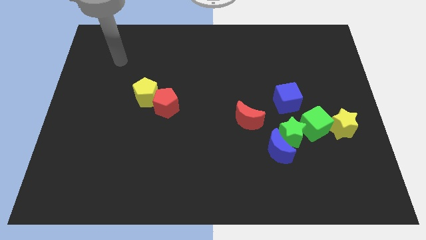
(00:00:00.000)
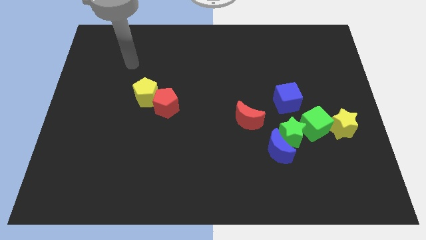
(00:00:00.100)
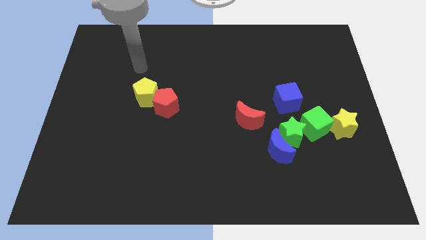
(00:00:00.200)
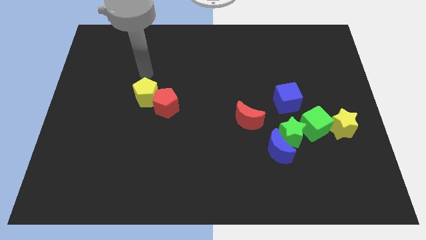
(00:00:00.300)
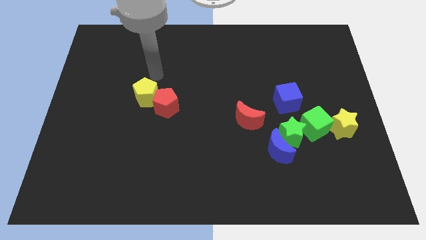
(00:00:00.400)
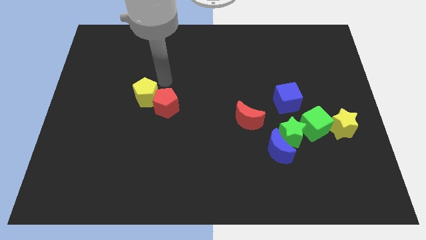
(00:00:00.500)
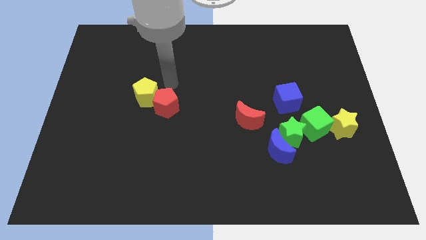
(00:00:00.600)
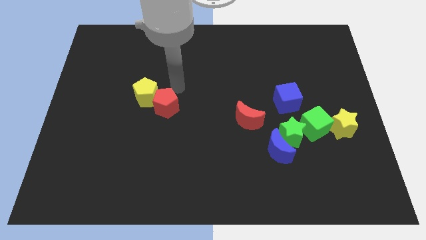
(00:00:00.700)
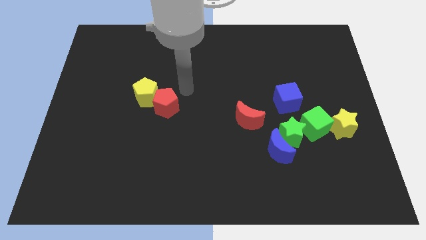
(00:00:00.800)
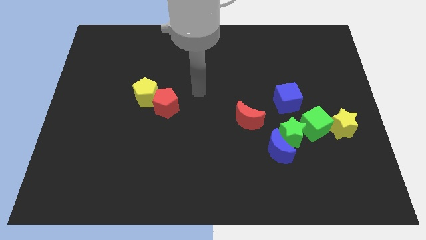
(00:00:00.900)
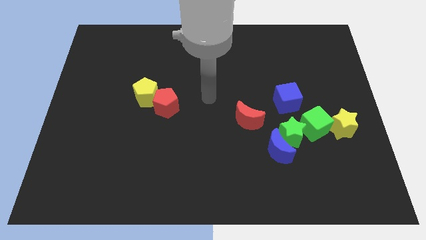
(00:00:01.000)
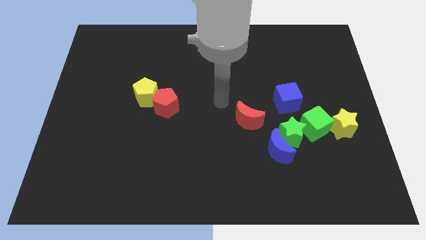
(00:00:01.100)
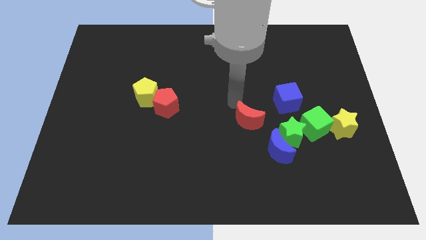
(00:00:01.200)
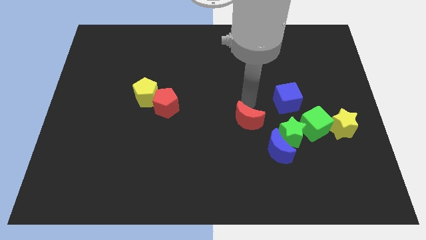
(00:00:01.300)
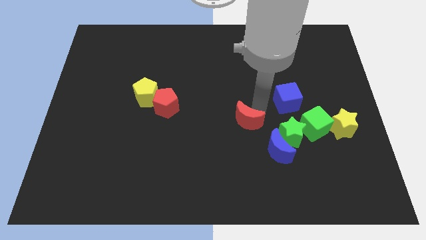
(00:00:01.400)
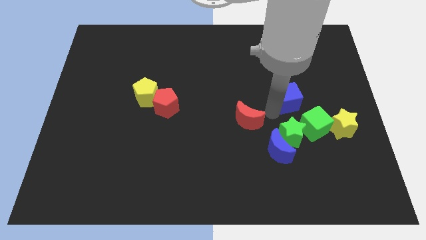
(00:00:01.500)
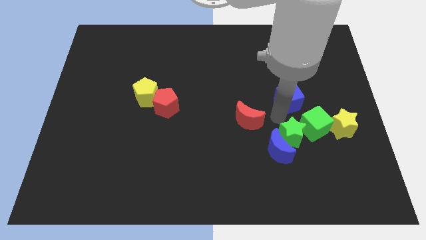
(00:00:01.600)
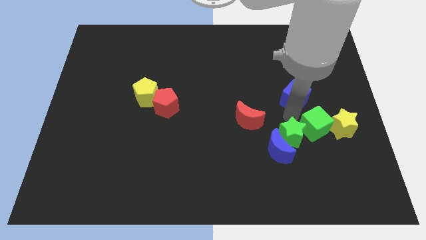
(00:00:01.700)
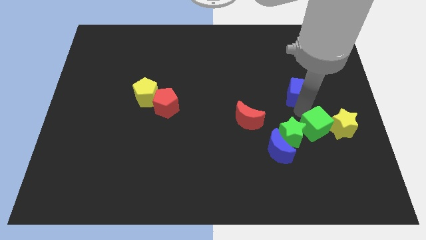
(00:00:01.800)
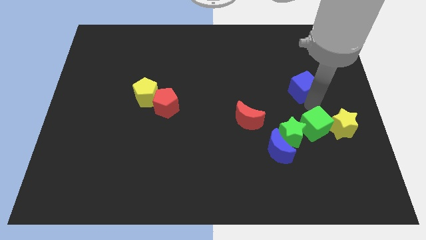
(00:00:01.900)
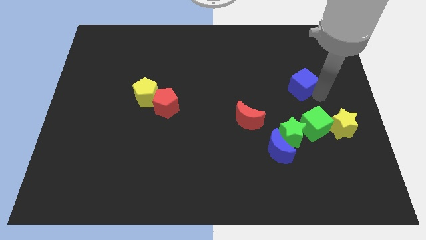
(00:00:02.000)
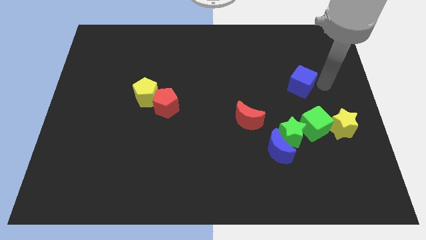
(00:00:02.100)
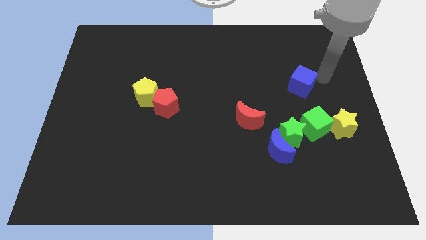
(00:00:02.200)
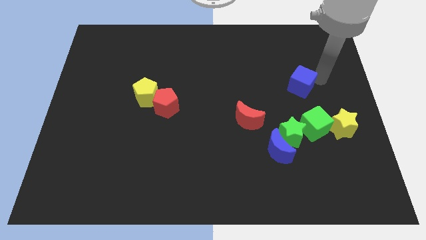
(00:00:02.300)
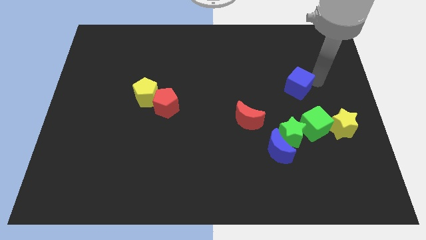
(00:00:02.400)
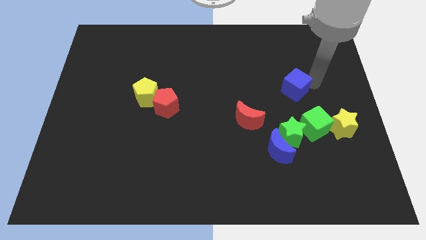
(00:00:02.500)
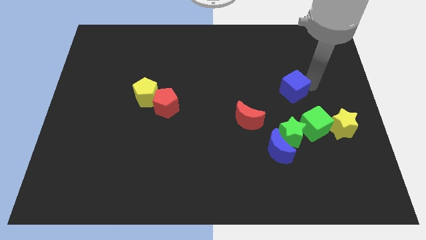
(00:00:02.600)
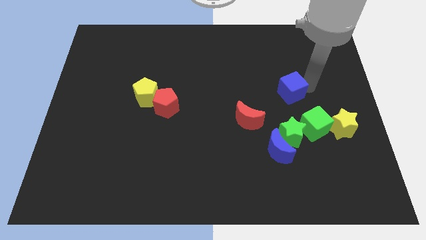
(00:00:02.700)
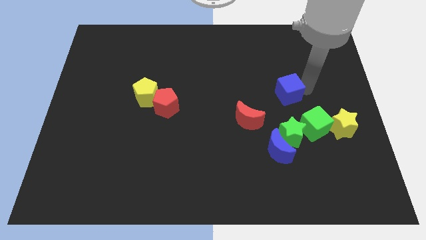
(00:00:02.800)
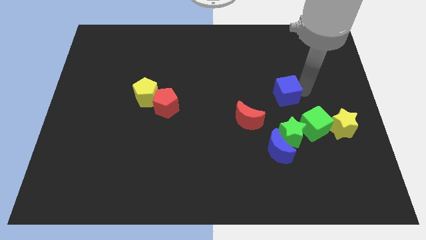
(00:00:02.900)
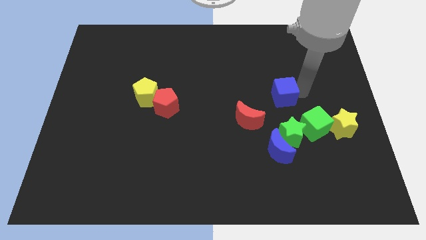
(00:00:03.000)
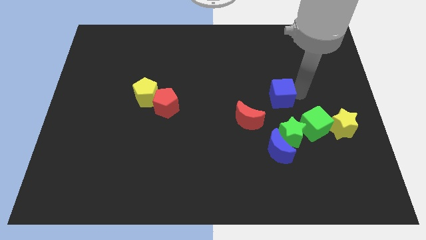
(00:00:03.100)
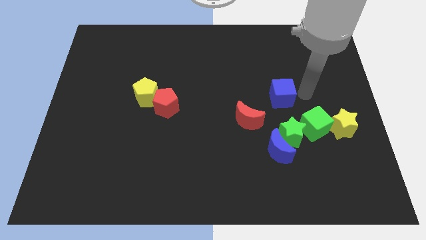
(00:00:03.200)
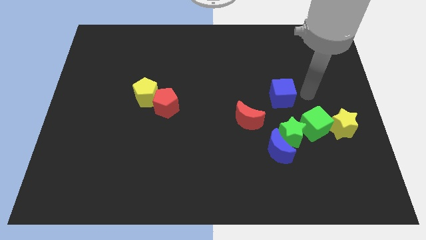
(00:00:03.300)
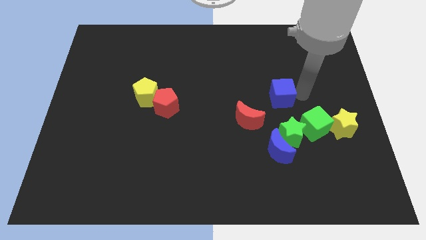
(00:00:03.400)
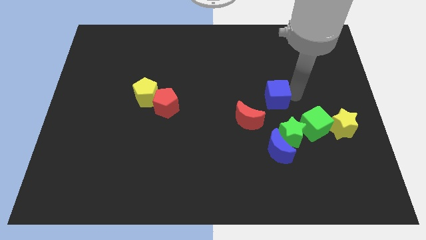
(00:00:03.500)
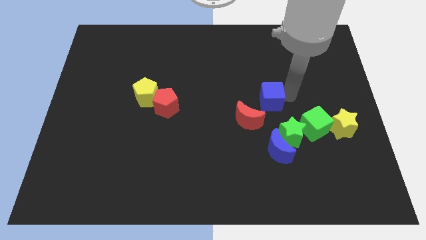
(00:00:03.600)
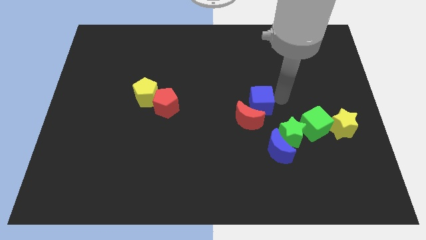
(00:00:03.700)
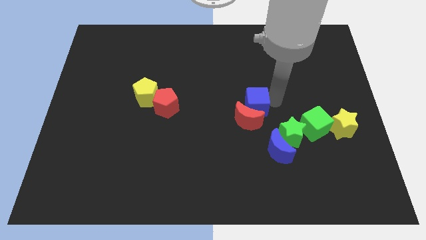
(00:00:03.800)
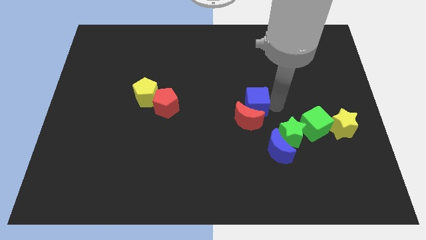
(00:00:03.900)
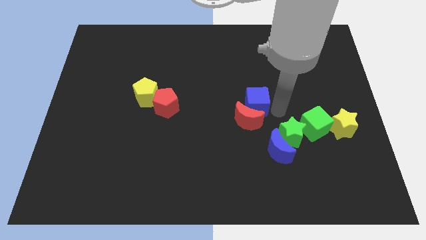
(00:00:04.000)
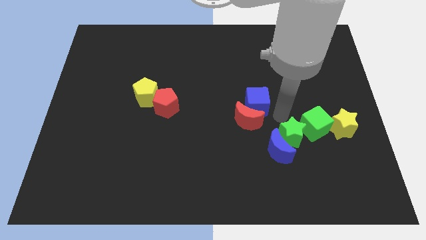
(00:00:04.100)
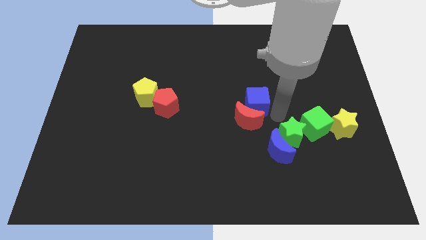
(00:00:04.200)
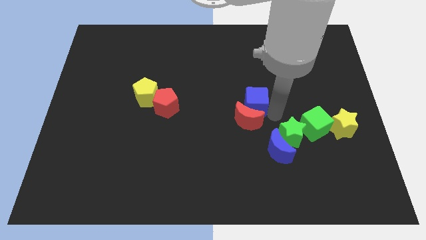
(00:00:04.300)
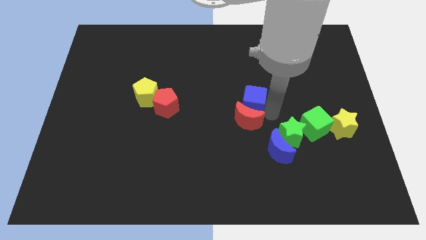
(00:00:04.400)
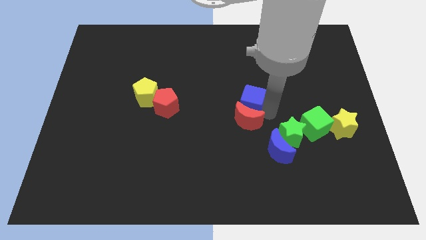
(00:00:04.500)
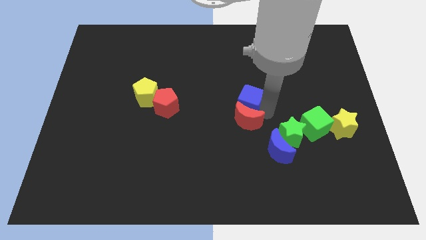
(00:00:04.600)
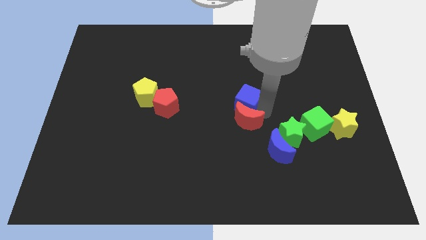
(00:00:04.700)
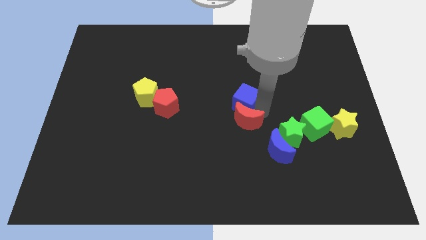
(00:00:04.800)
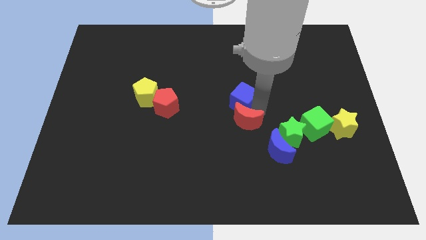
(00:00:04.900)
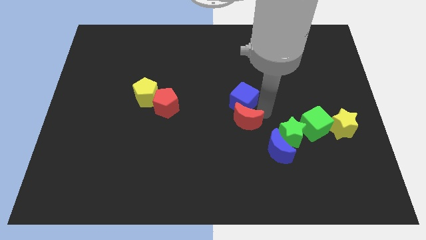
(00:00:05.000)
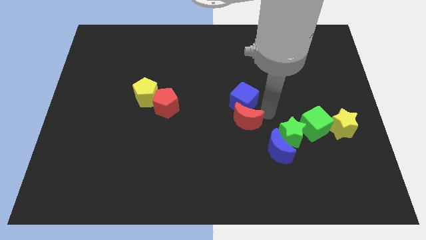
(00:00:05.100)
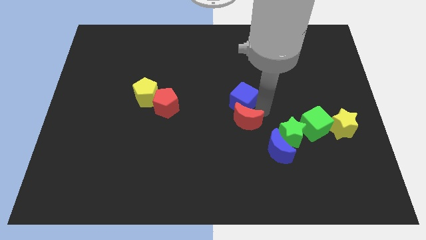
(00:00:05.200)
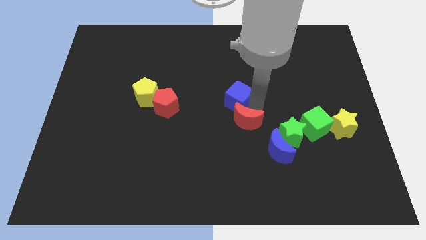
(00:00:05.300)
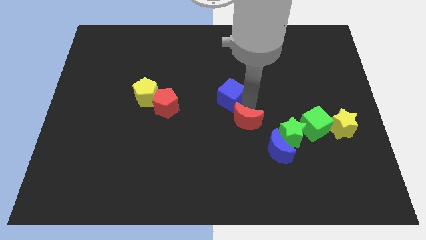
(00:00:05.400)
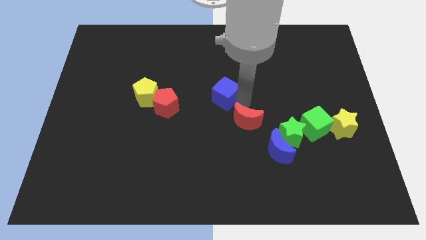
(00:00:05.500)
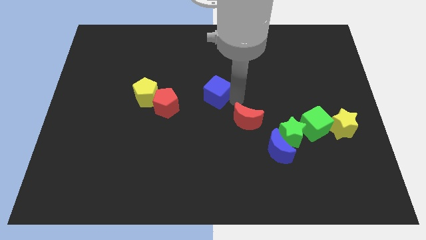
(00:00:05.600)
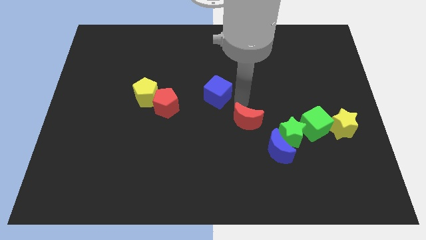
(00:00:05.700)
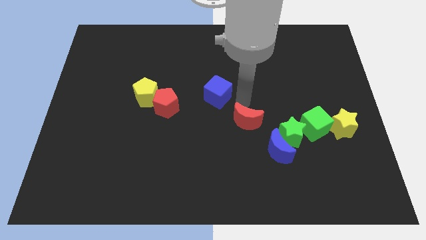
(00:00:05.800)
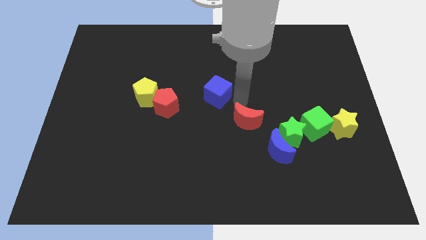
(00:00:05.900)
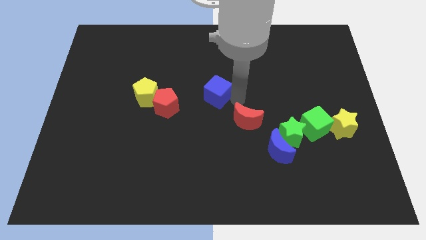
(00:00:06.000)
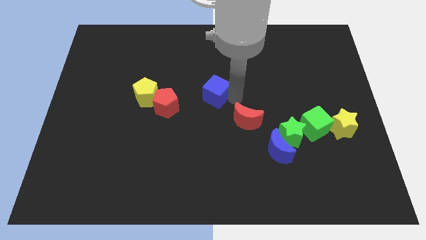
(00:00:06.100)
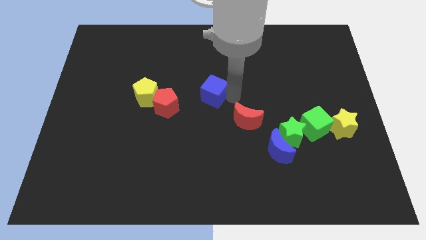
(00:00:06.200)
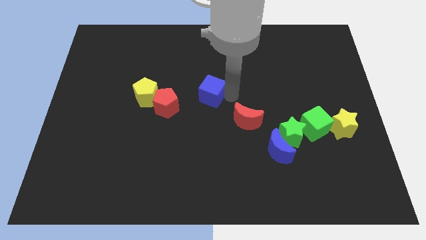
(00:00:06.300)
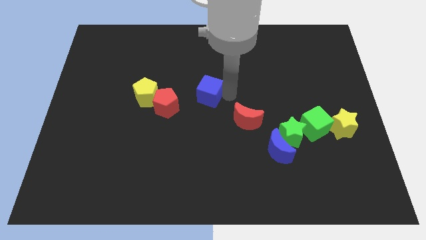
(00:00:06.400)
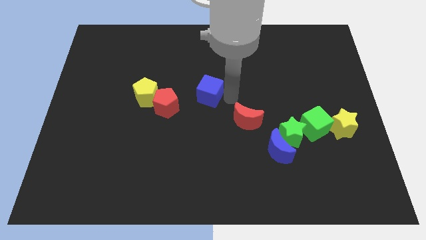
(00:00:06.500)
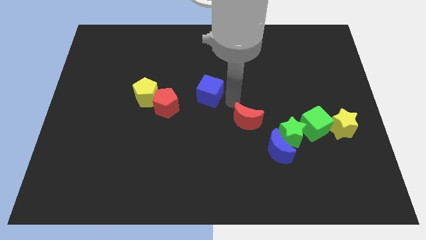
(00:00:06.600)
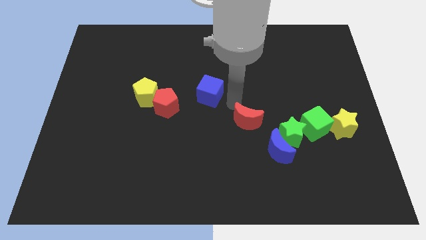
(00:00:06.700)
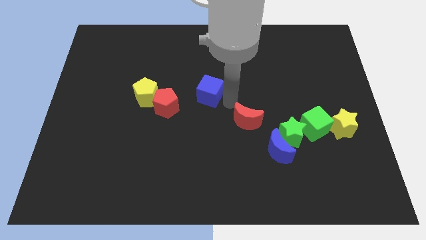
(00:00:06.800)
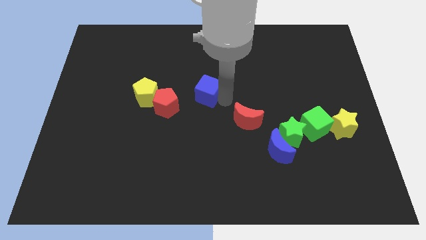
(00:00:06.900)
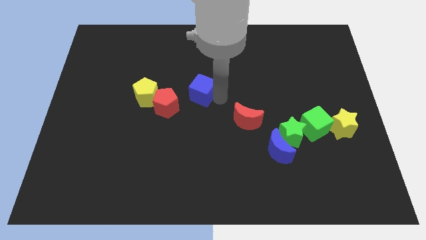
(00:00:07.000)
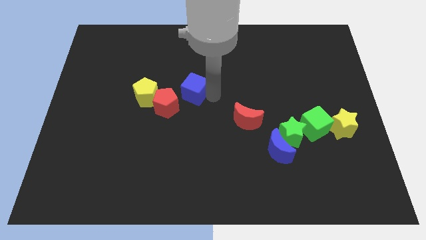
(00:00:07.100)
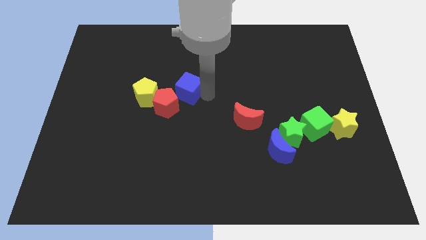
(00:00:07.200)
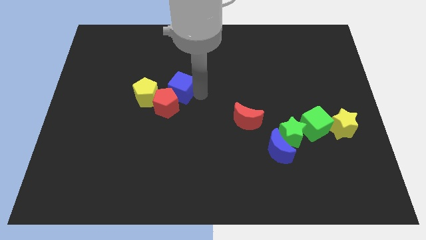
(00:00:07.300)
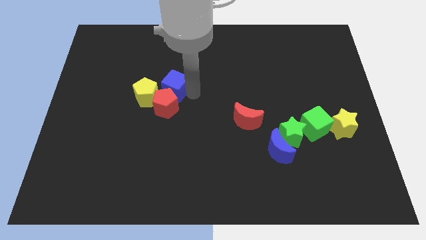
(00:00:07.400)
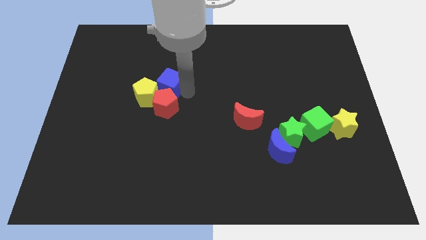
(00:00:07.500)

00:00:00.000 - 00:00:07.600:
slide the blue cube to the top left side of the red pentagon
